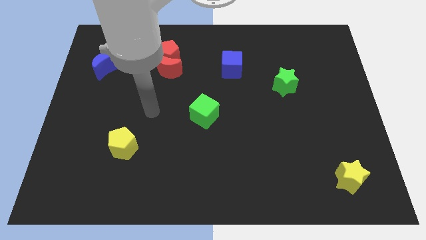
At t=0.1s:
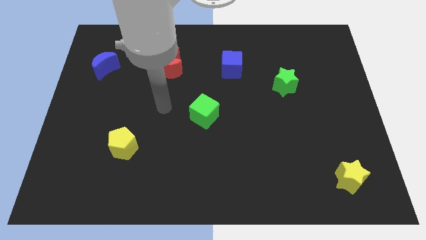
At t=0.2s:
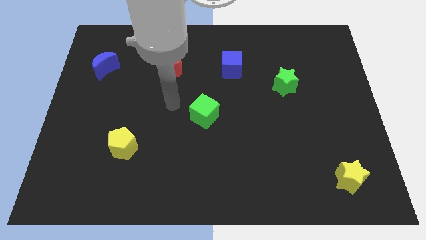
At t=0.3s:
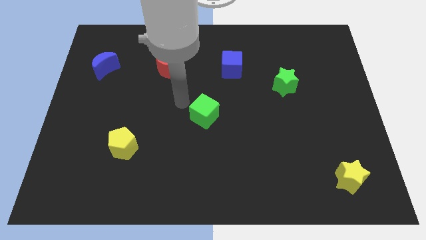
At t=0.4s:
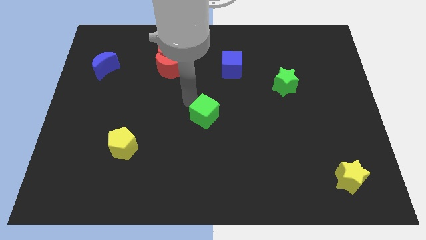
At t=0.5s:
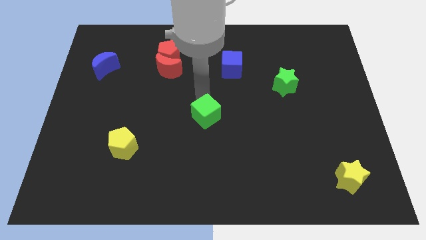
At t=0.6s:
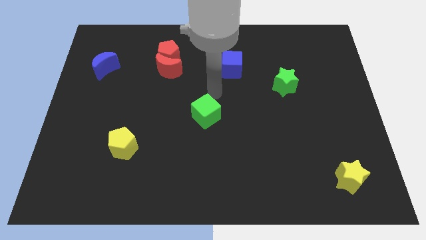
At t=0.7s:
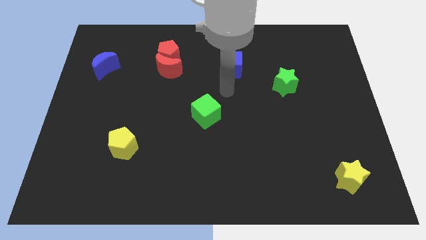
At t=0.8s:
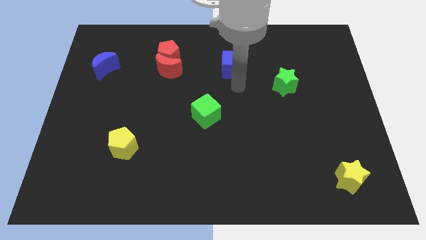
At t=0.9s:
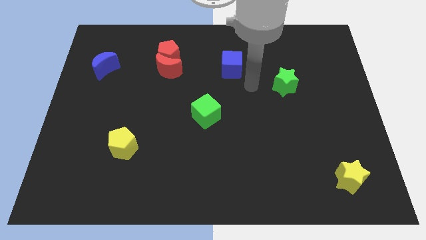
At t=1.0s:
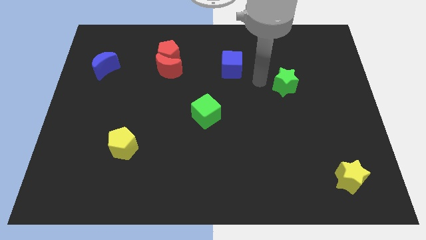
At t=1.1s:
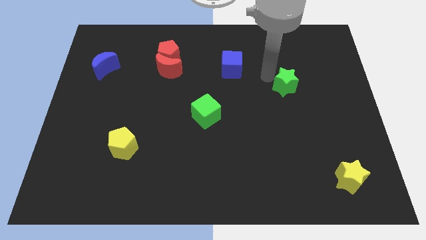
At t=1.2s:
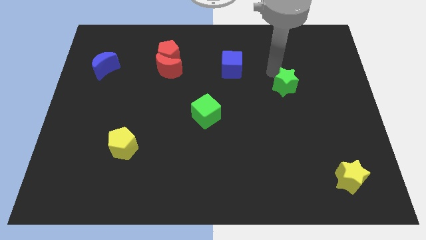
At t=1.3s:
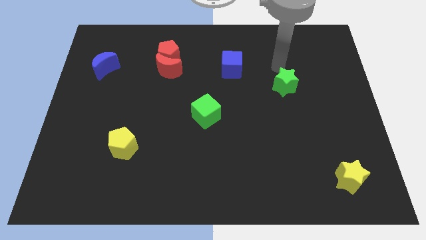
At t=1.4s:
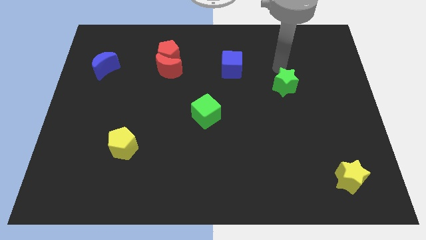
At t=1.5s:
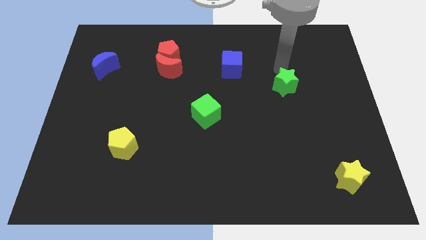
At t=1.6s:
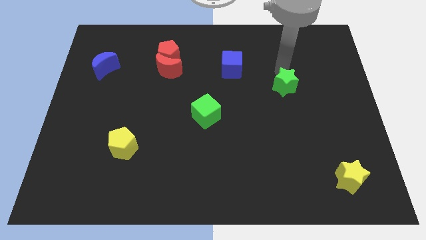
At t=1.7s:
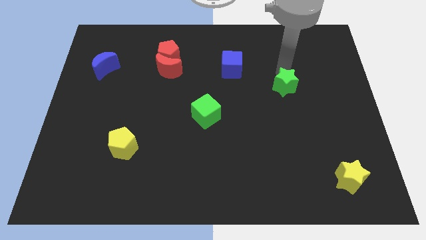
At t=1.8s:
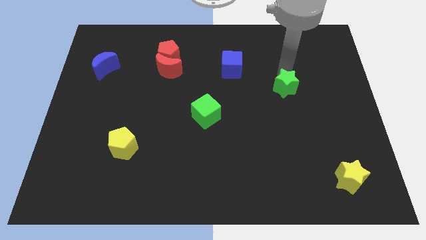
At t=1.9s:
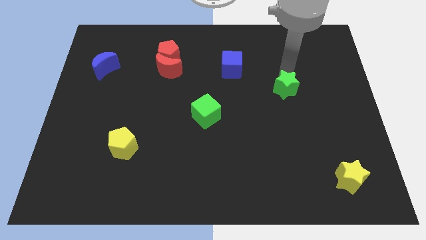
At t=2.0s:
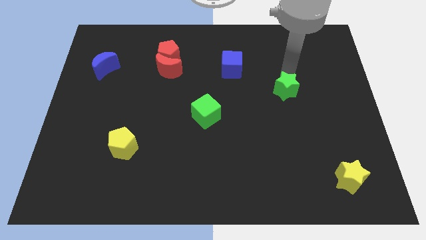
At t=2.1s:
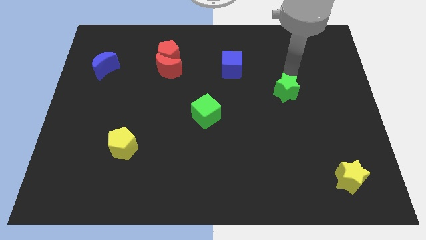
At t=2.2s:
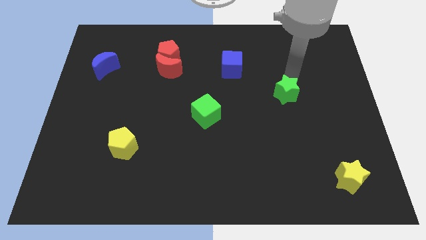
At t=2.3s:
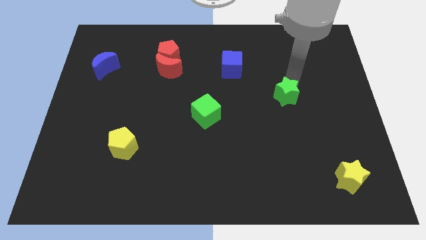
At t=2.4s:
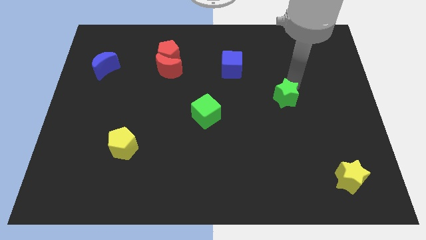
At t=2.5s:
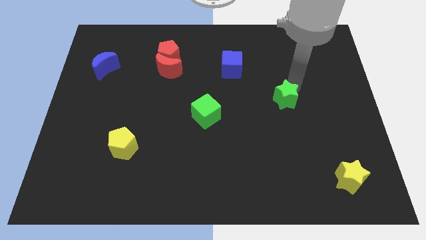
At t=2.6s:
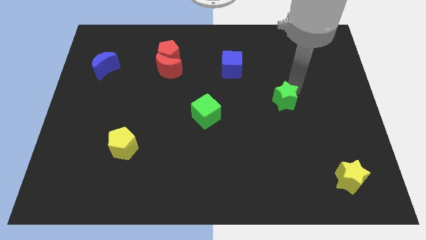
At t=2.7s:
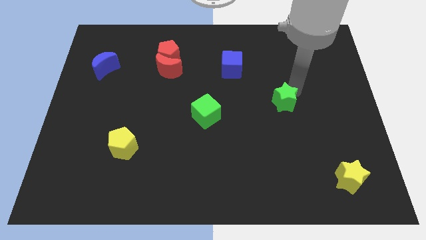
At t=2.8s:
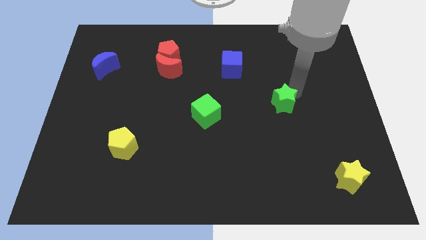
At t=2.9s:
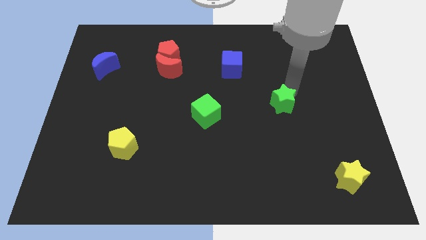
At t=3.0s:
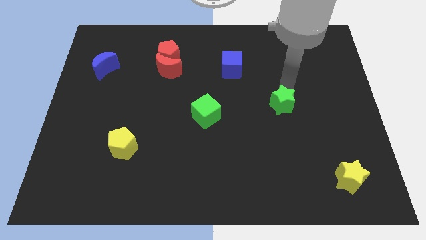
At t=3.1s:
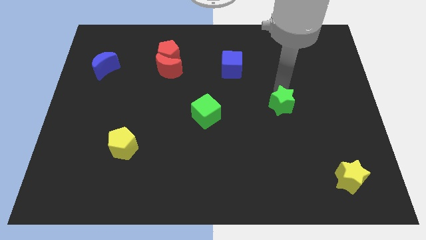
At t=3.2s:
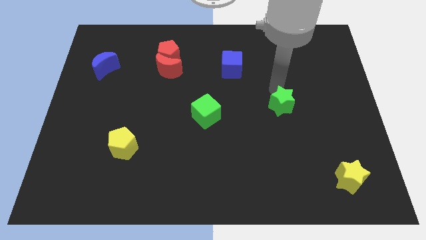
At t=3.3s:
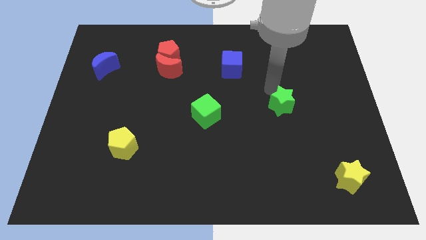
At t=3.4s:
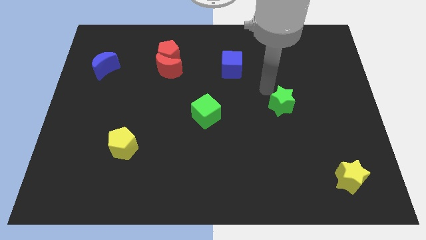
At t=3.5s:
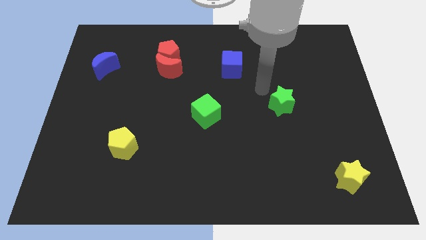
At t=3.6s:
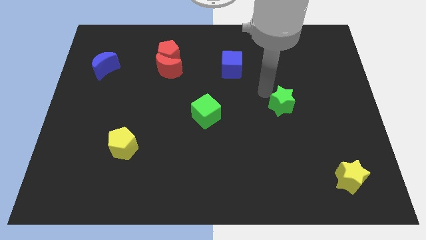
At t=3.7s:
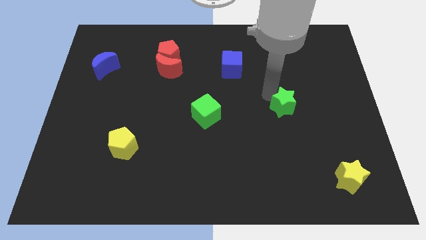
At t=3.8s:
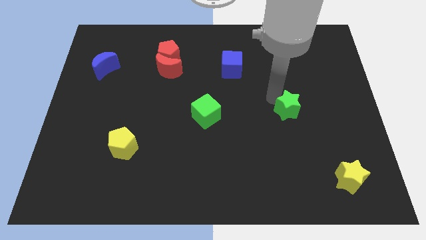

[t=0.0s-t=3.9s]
slide the green star somewhat downwards

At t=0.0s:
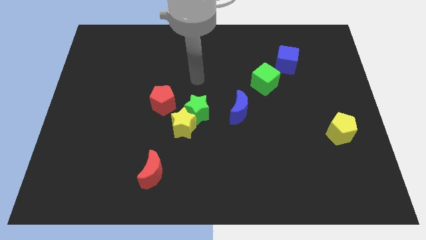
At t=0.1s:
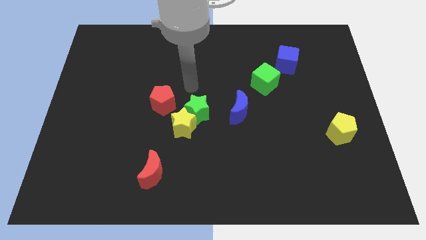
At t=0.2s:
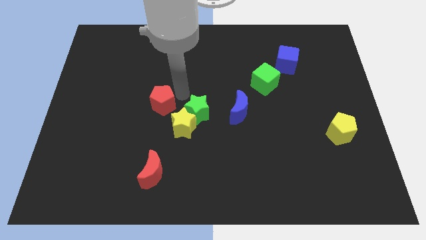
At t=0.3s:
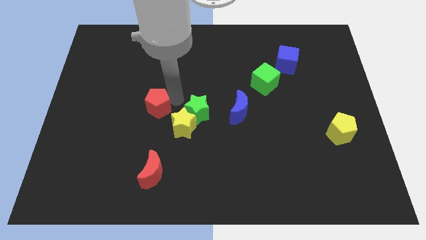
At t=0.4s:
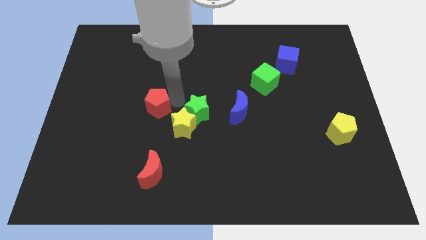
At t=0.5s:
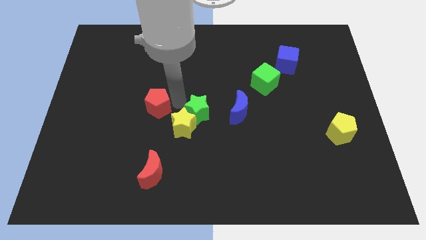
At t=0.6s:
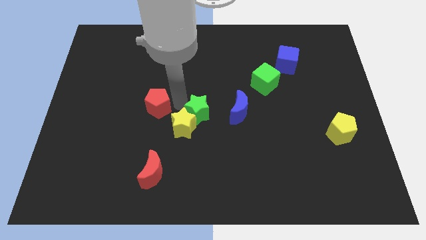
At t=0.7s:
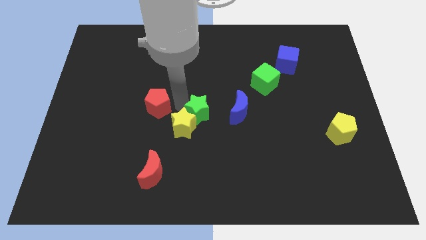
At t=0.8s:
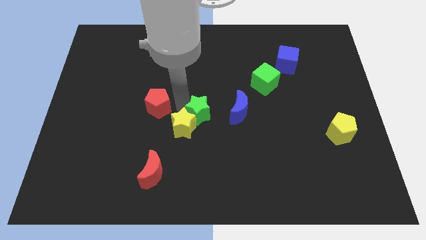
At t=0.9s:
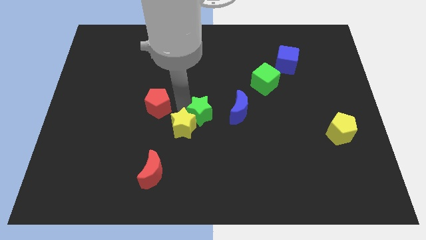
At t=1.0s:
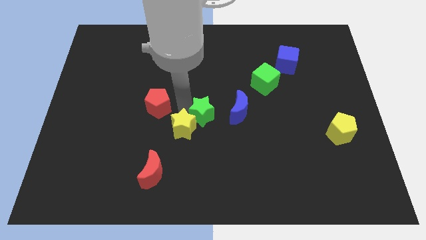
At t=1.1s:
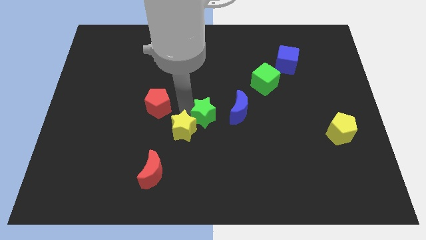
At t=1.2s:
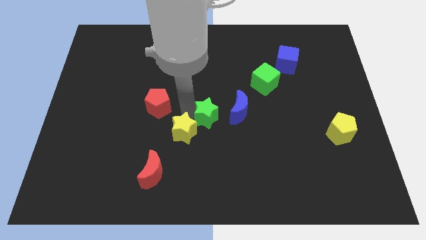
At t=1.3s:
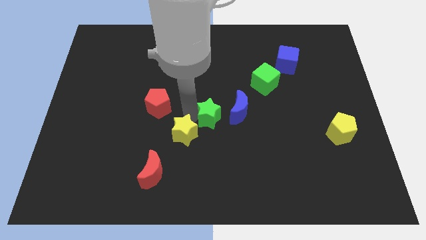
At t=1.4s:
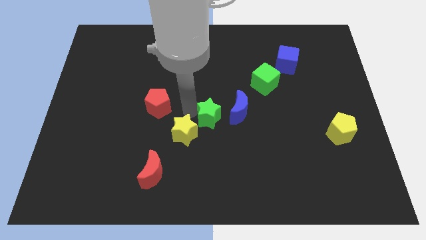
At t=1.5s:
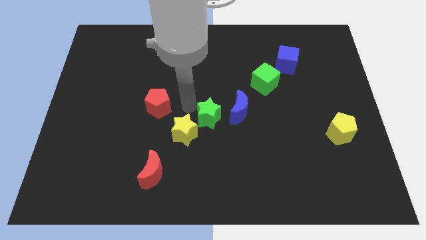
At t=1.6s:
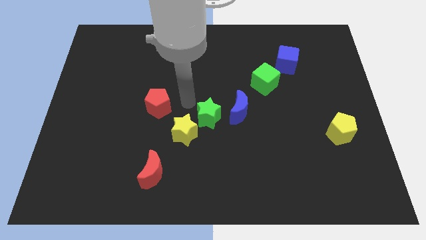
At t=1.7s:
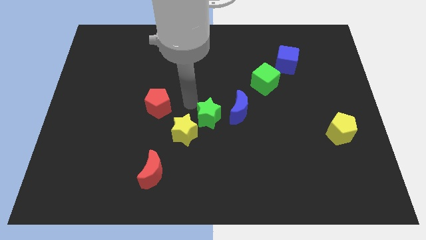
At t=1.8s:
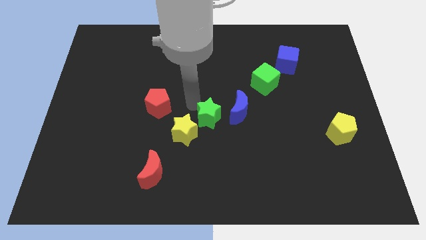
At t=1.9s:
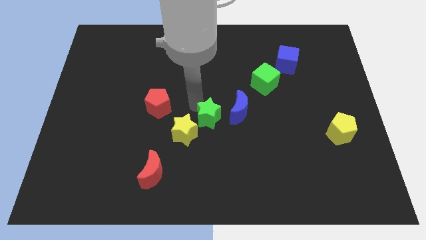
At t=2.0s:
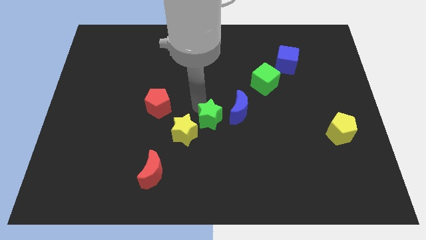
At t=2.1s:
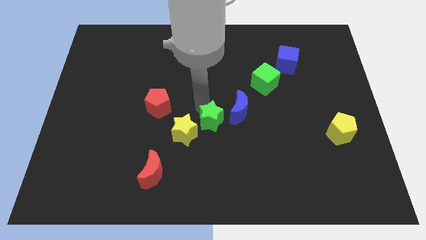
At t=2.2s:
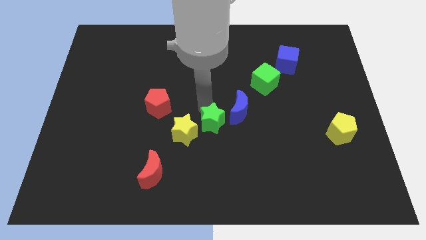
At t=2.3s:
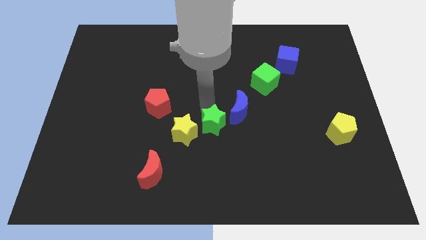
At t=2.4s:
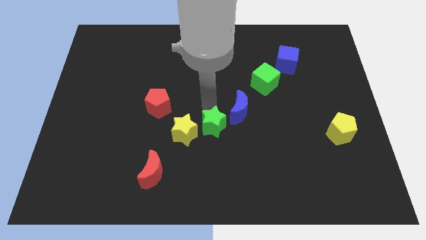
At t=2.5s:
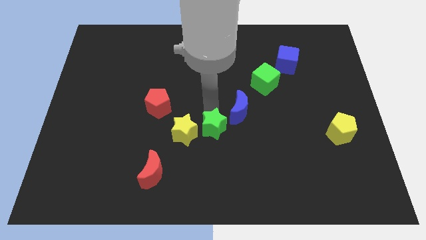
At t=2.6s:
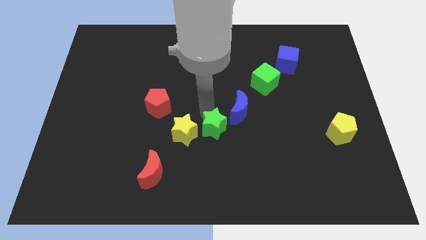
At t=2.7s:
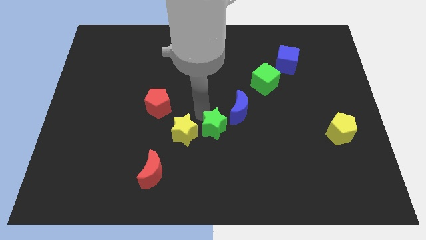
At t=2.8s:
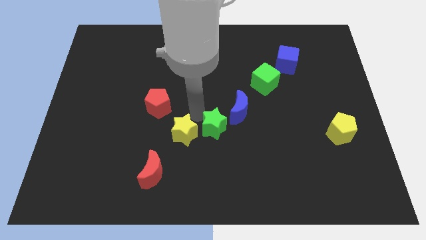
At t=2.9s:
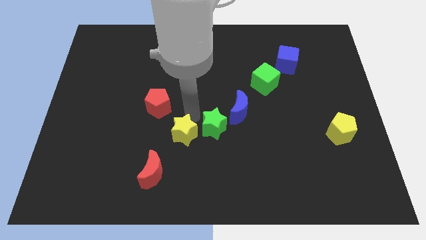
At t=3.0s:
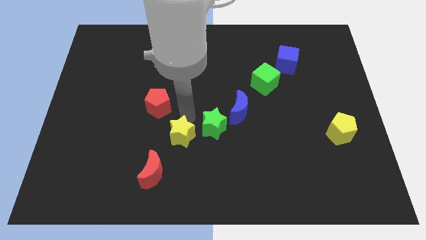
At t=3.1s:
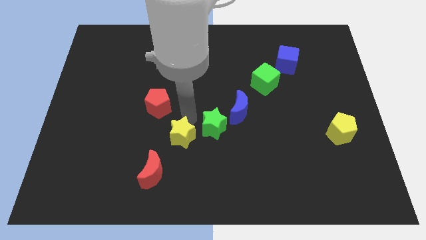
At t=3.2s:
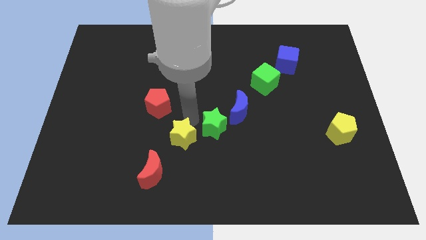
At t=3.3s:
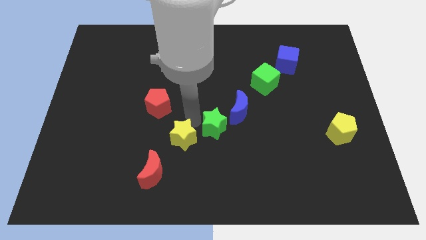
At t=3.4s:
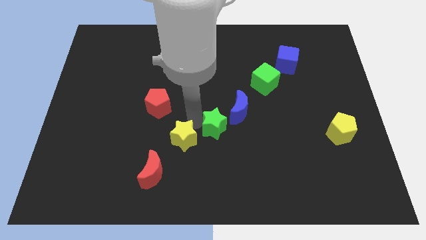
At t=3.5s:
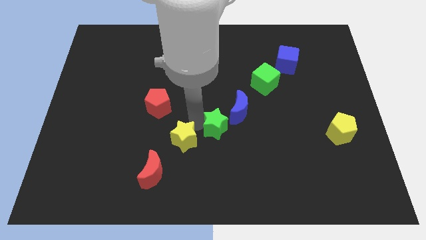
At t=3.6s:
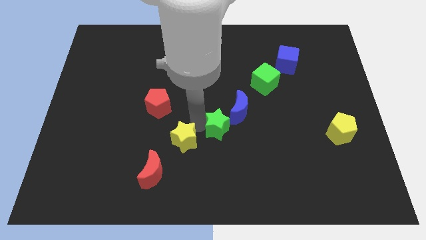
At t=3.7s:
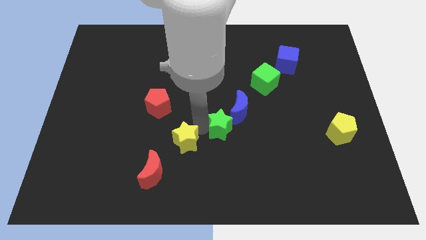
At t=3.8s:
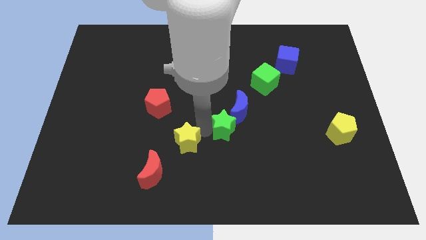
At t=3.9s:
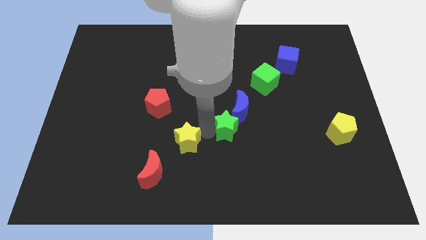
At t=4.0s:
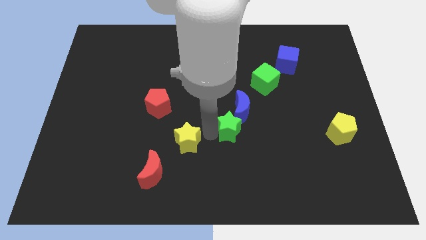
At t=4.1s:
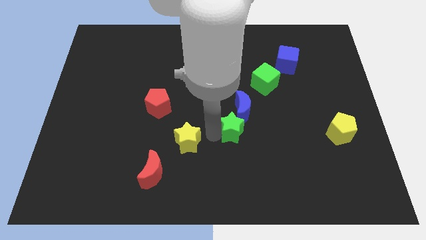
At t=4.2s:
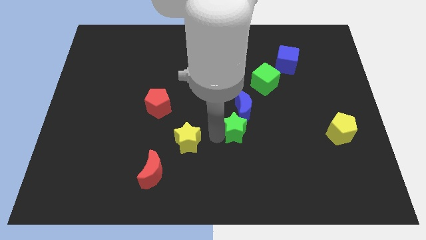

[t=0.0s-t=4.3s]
slide the green star to the right a little bit
